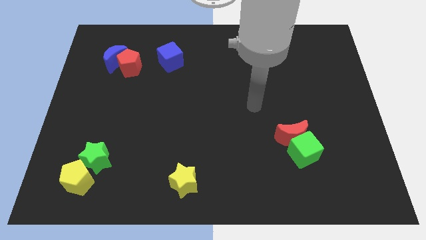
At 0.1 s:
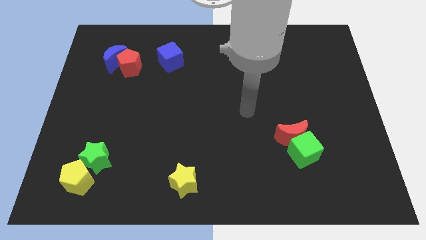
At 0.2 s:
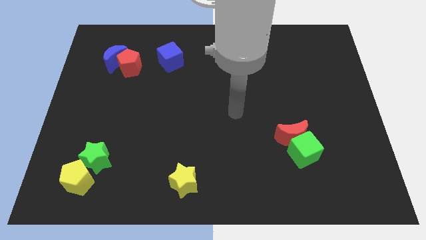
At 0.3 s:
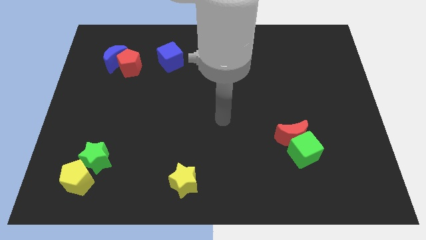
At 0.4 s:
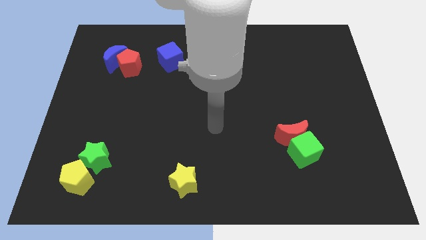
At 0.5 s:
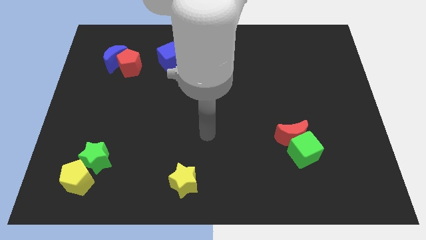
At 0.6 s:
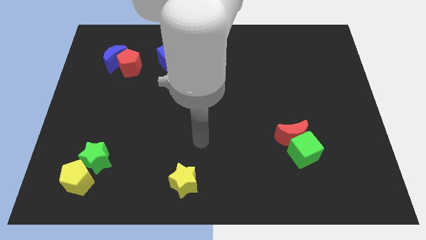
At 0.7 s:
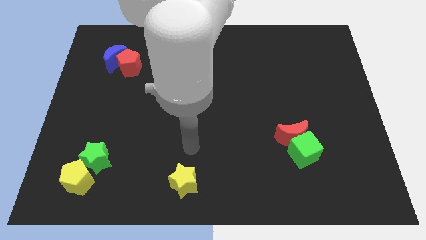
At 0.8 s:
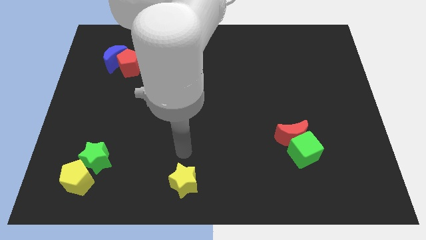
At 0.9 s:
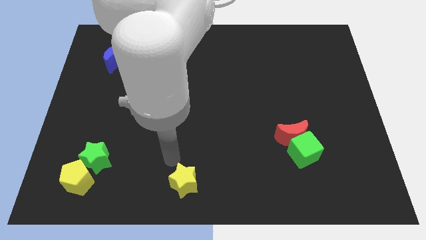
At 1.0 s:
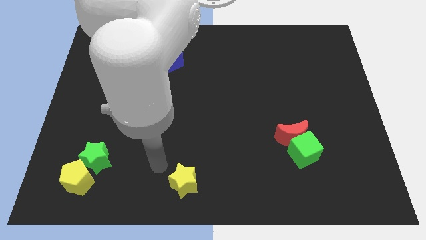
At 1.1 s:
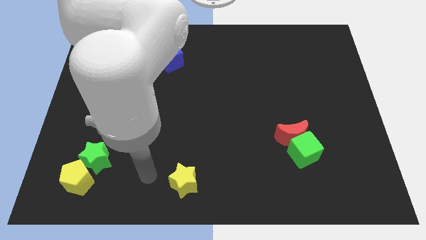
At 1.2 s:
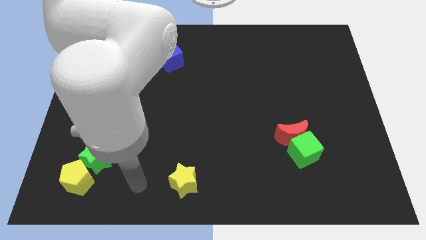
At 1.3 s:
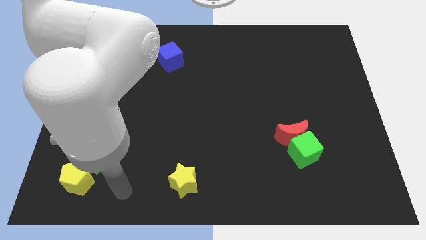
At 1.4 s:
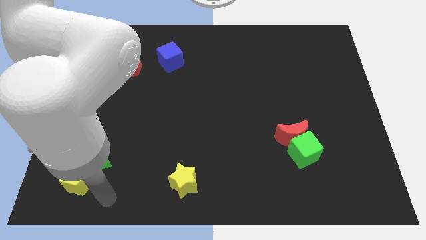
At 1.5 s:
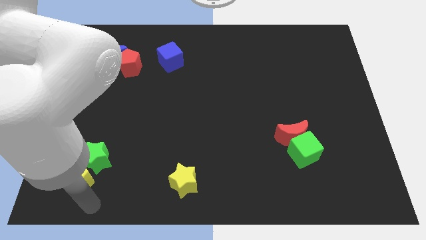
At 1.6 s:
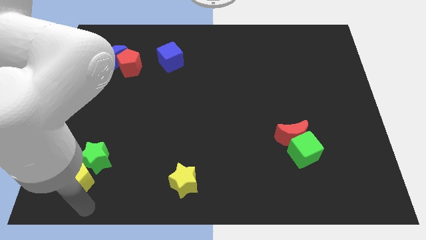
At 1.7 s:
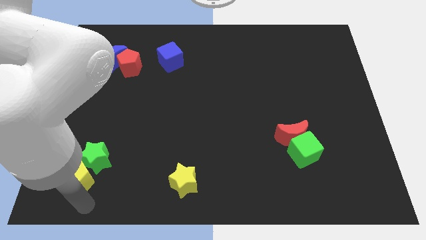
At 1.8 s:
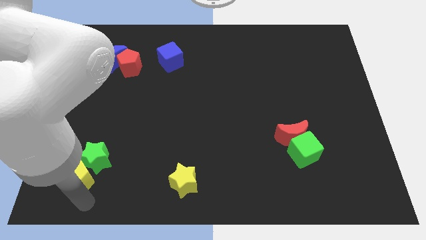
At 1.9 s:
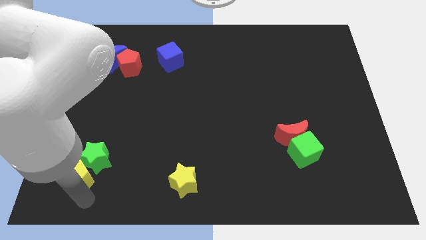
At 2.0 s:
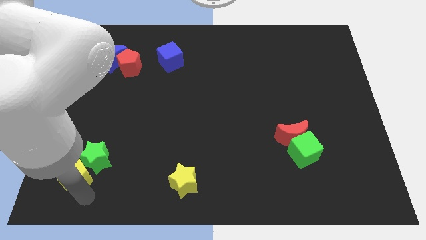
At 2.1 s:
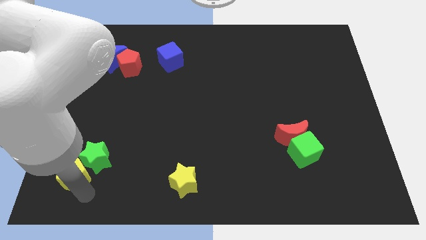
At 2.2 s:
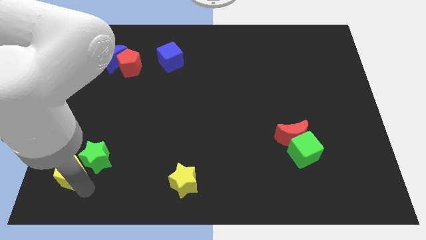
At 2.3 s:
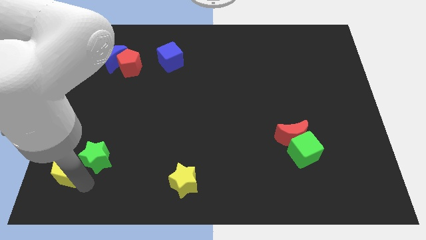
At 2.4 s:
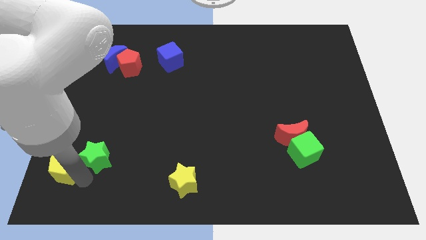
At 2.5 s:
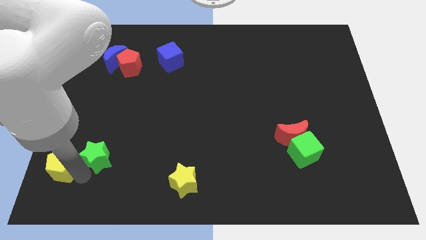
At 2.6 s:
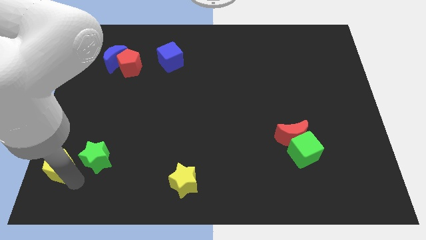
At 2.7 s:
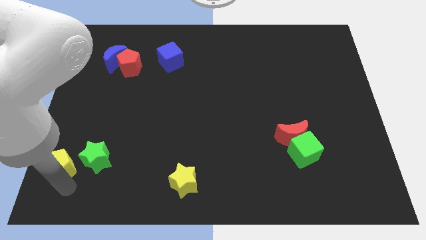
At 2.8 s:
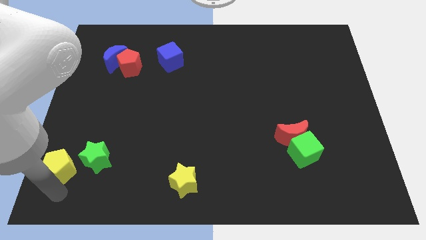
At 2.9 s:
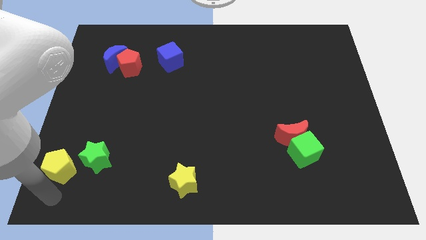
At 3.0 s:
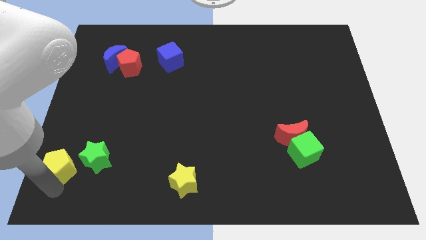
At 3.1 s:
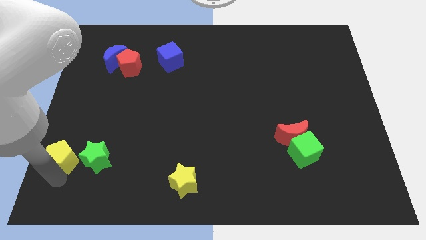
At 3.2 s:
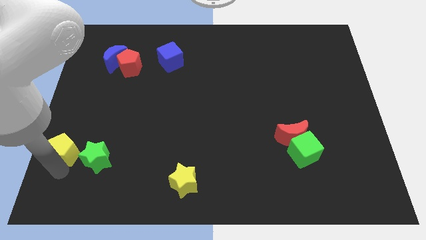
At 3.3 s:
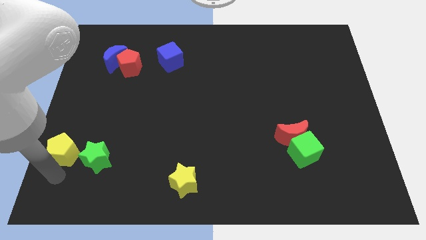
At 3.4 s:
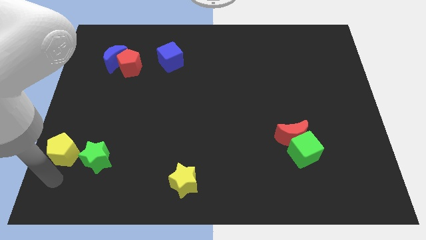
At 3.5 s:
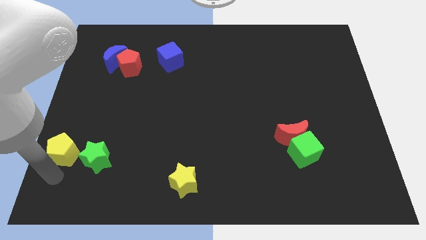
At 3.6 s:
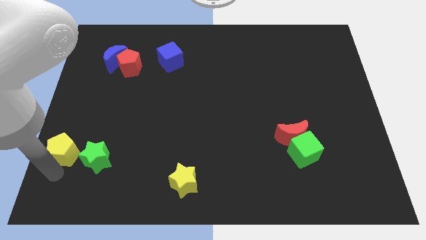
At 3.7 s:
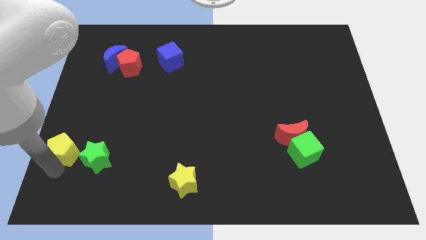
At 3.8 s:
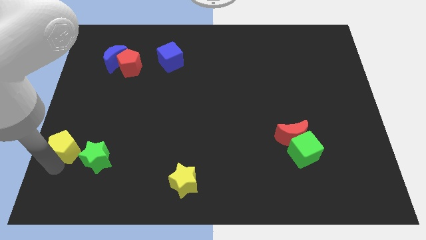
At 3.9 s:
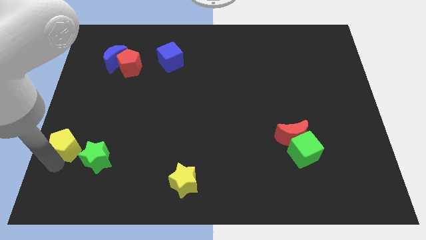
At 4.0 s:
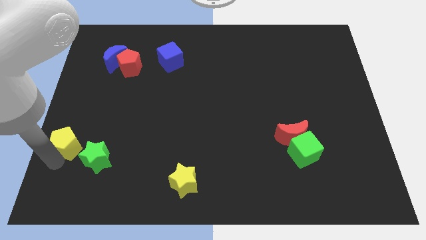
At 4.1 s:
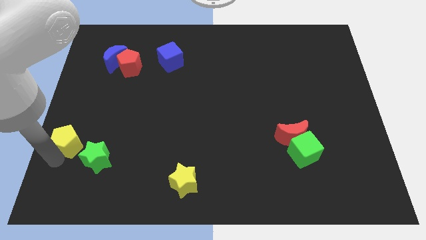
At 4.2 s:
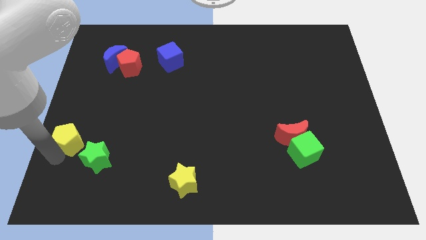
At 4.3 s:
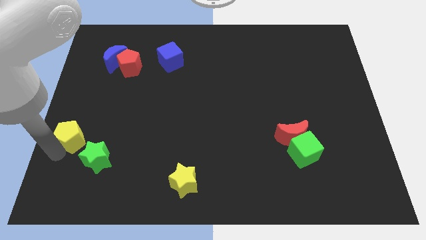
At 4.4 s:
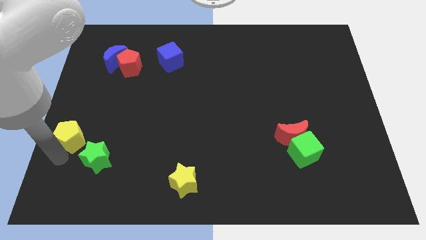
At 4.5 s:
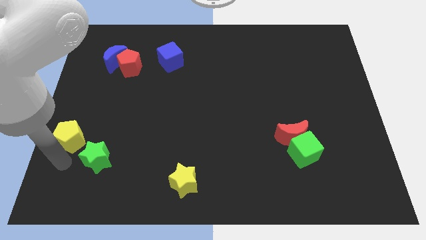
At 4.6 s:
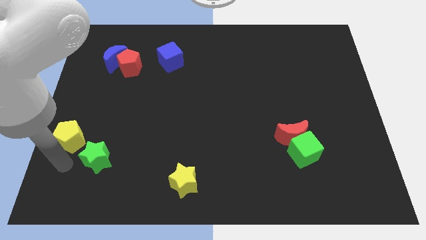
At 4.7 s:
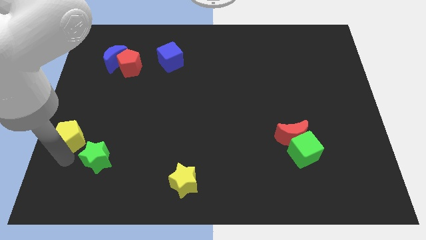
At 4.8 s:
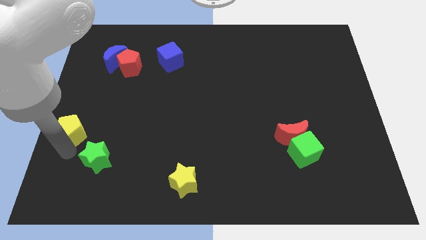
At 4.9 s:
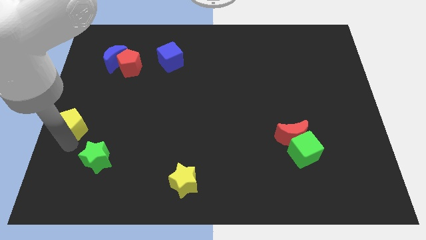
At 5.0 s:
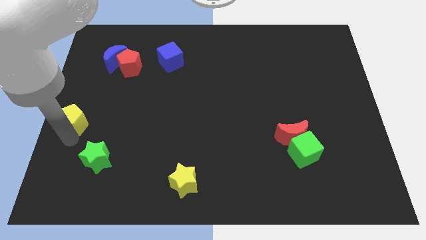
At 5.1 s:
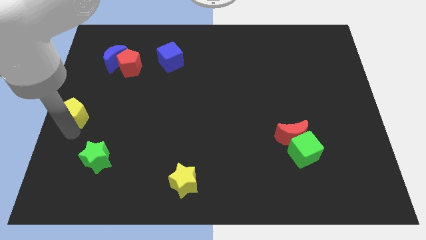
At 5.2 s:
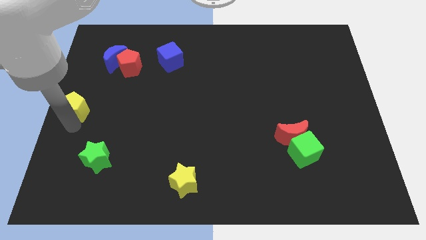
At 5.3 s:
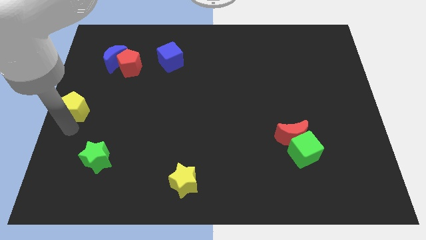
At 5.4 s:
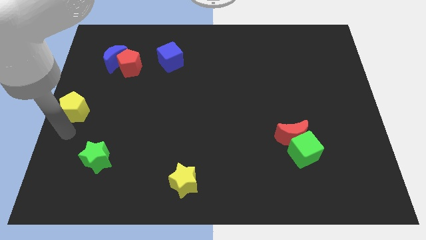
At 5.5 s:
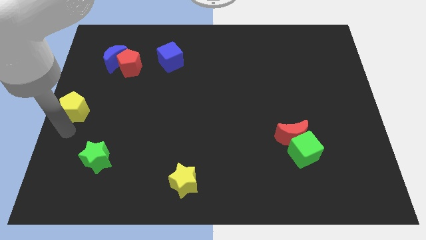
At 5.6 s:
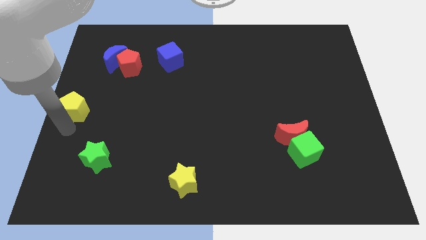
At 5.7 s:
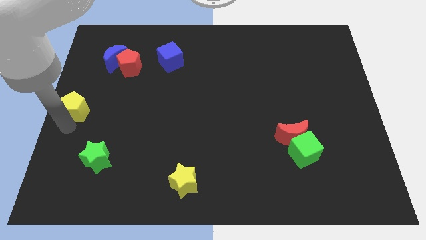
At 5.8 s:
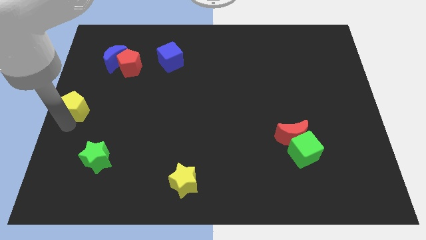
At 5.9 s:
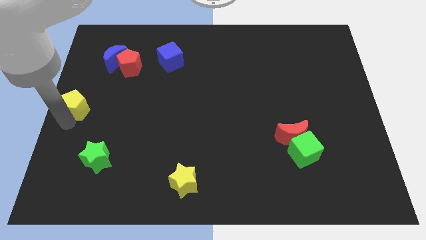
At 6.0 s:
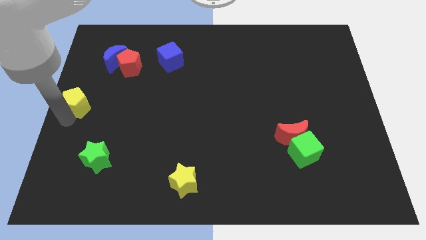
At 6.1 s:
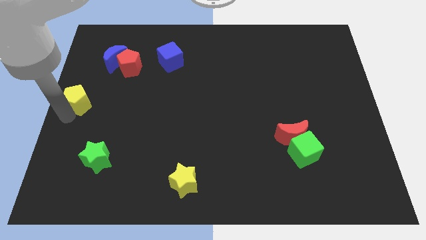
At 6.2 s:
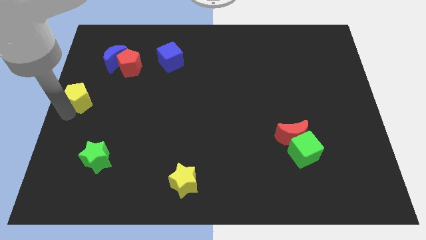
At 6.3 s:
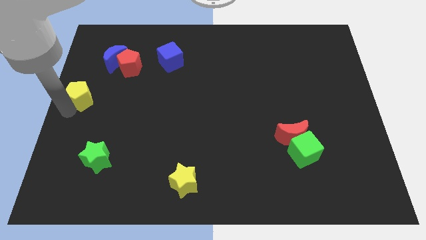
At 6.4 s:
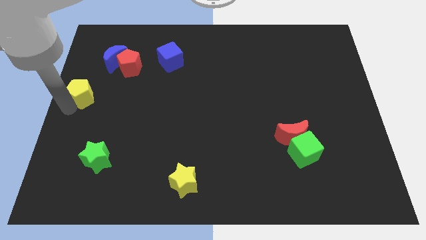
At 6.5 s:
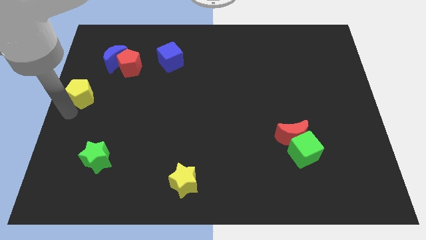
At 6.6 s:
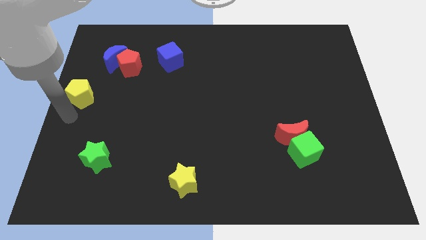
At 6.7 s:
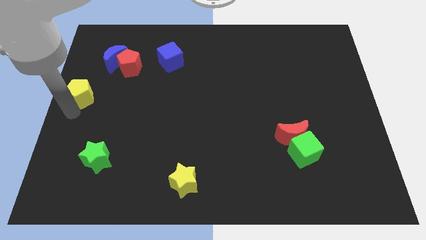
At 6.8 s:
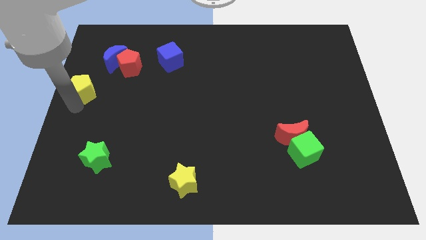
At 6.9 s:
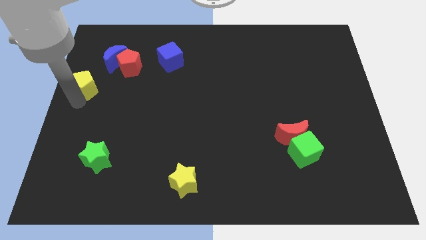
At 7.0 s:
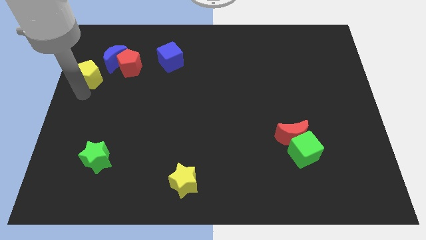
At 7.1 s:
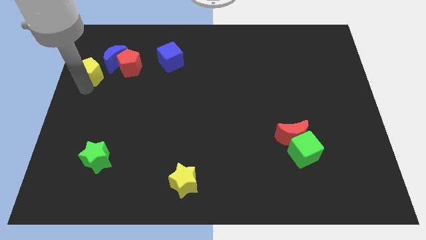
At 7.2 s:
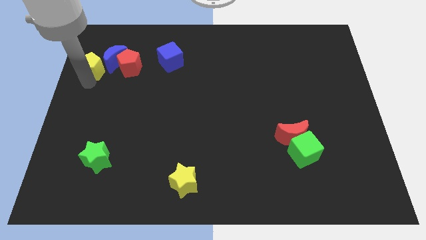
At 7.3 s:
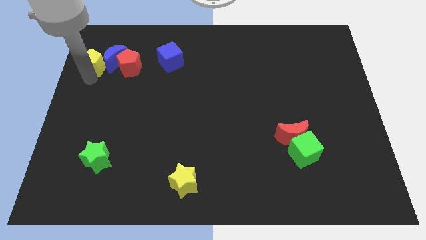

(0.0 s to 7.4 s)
slide the yellow pentagon towards the blue moon

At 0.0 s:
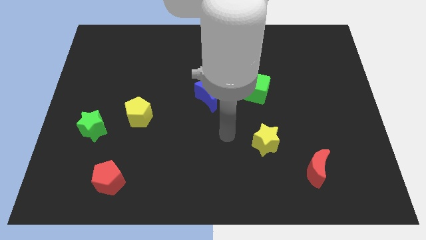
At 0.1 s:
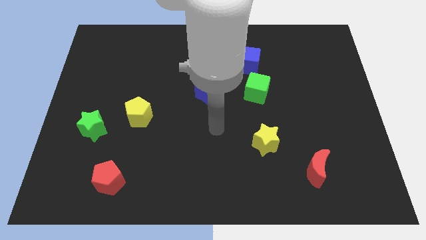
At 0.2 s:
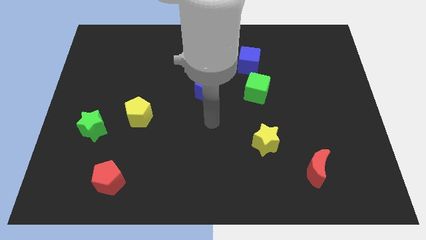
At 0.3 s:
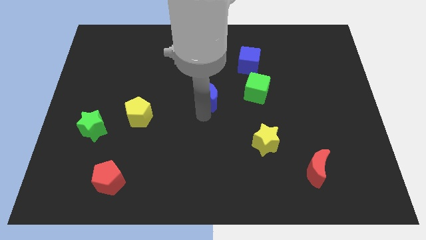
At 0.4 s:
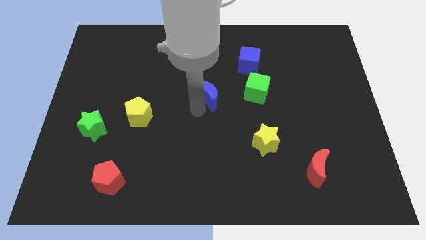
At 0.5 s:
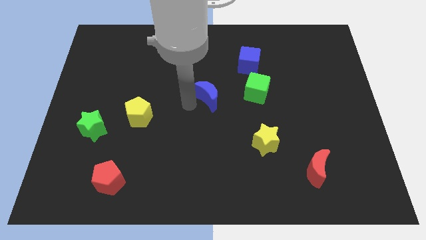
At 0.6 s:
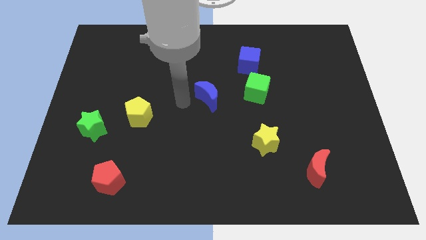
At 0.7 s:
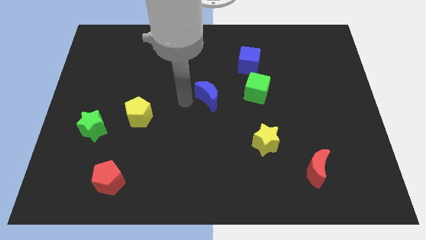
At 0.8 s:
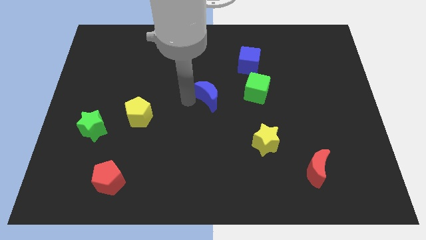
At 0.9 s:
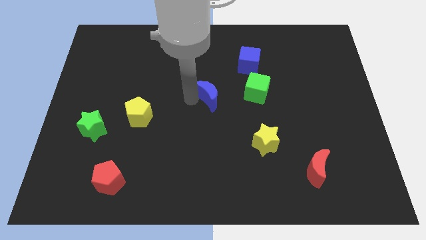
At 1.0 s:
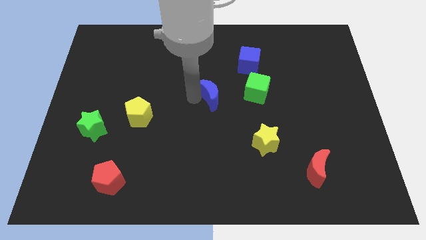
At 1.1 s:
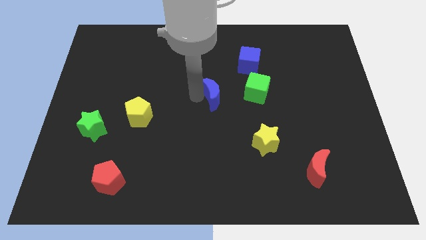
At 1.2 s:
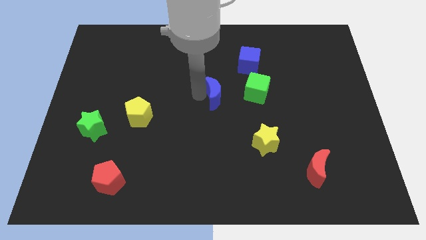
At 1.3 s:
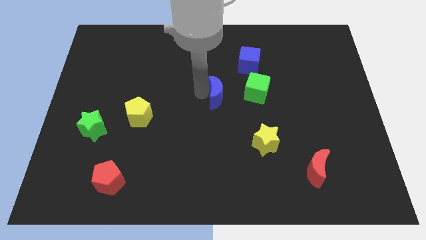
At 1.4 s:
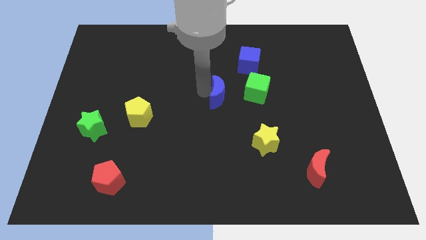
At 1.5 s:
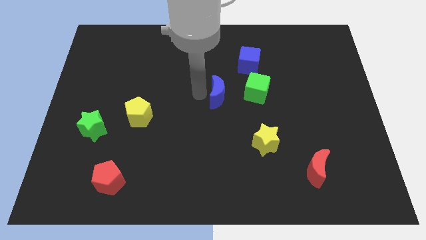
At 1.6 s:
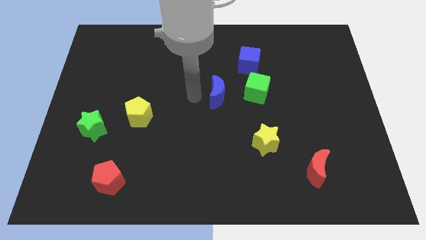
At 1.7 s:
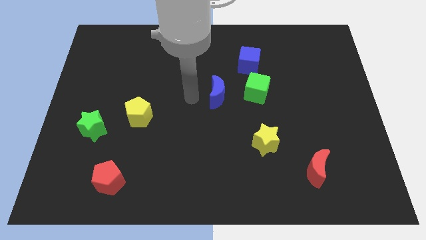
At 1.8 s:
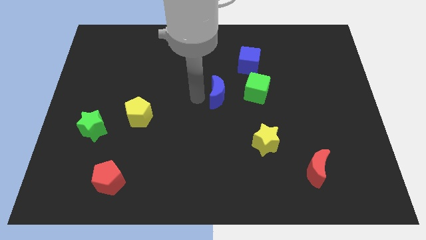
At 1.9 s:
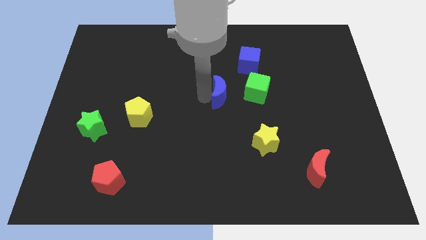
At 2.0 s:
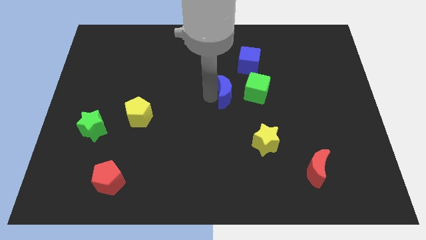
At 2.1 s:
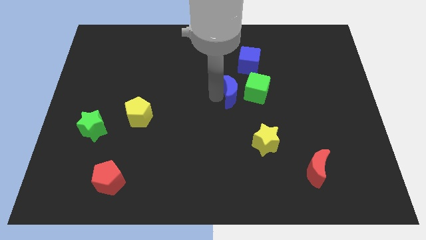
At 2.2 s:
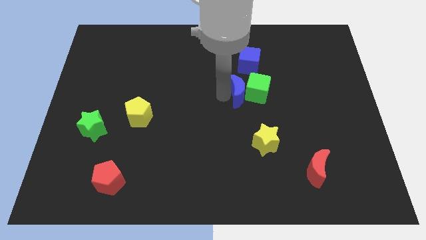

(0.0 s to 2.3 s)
slide the blue moon close to the green cube
